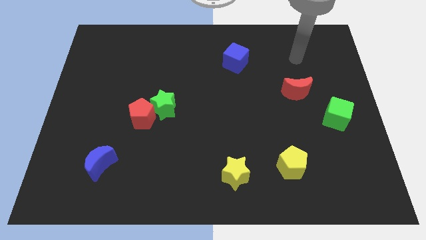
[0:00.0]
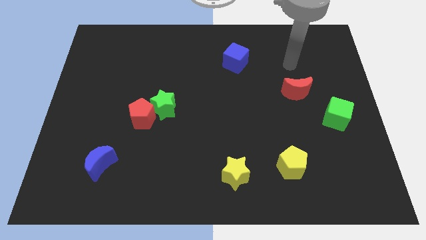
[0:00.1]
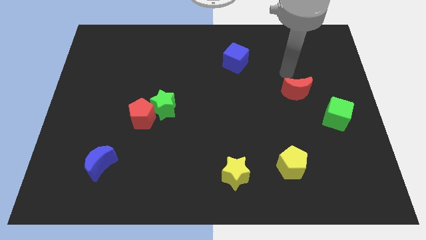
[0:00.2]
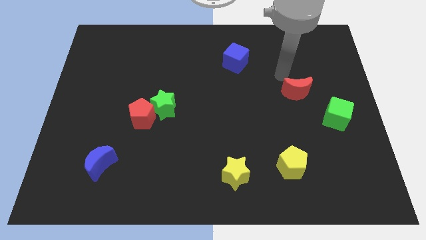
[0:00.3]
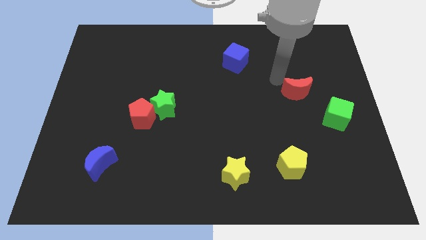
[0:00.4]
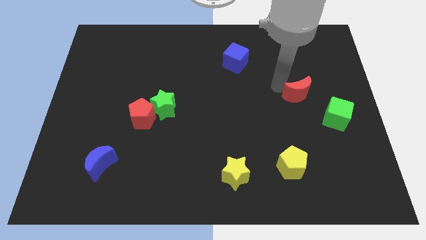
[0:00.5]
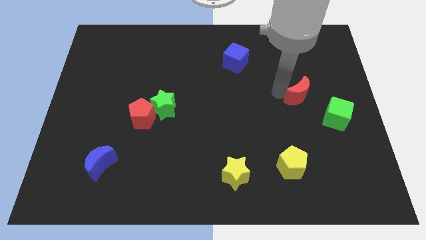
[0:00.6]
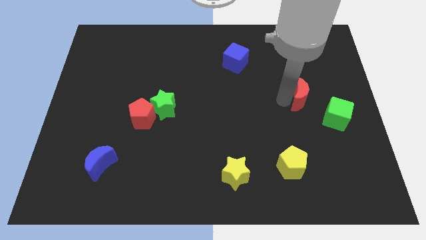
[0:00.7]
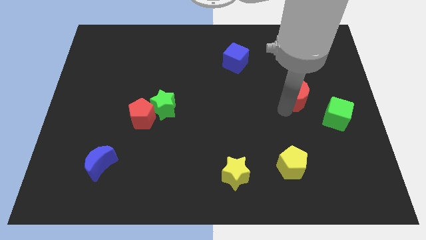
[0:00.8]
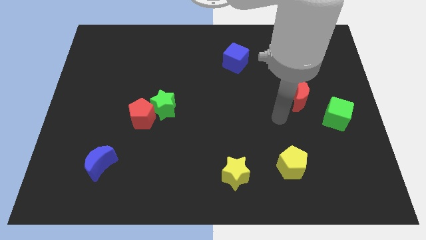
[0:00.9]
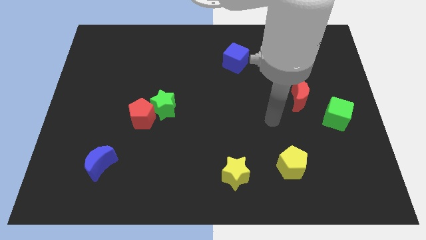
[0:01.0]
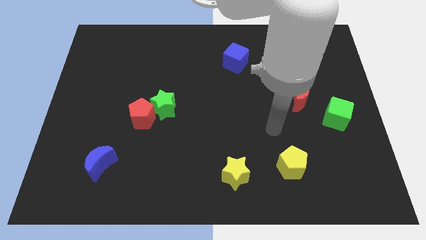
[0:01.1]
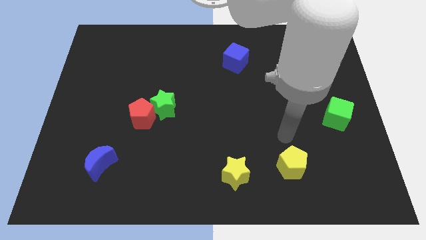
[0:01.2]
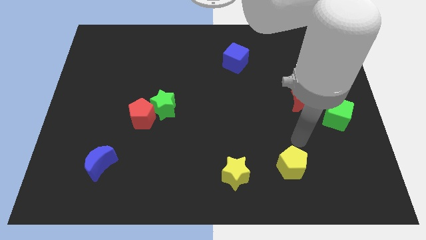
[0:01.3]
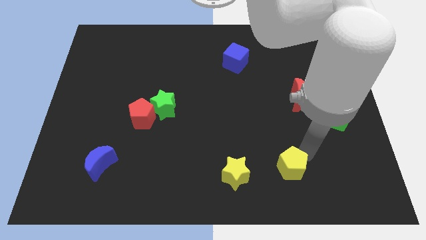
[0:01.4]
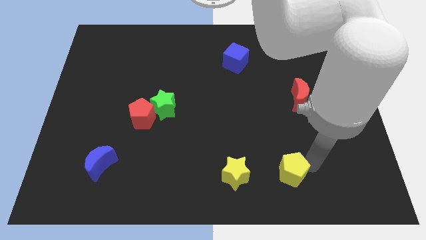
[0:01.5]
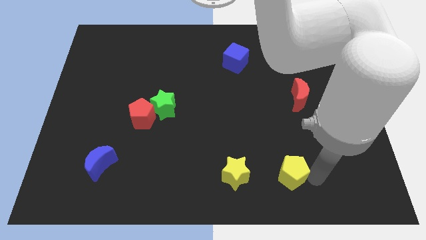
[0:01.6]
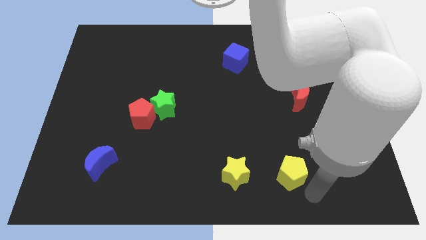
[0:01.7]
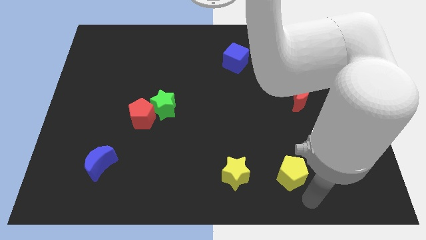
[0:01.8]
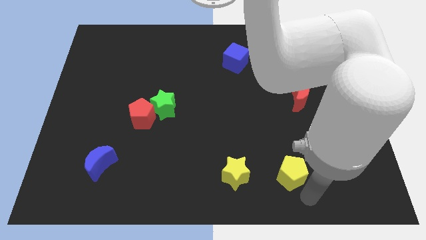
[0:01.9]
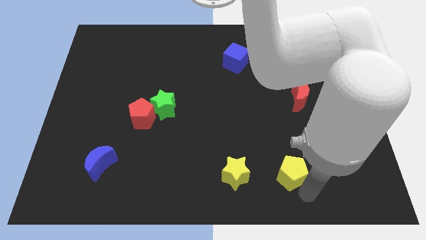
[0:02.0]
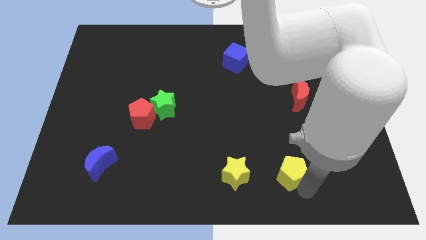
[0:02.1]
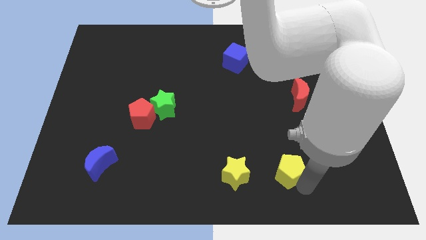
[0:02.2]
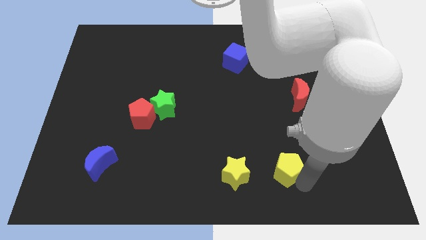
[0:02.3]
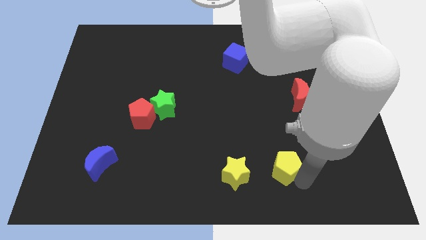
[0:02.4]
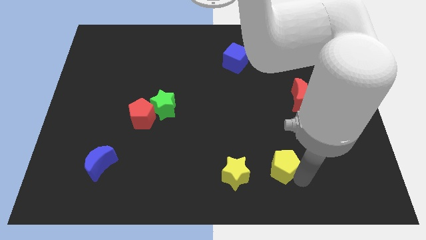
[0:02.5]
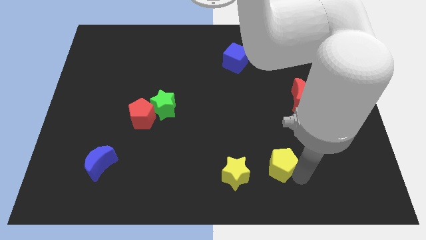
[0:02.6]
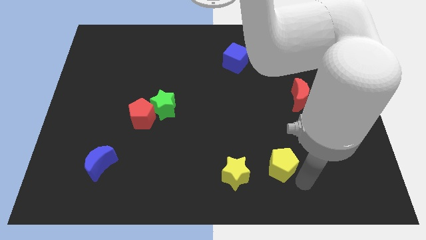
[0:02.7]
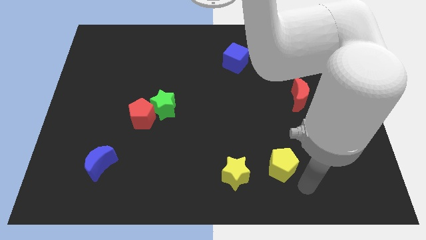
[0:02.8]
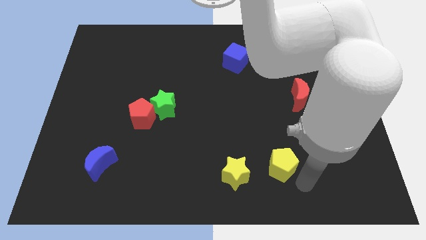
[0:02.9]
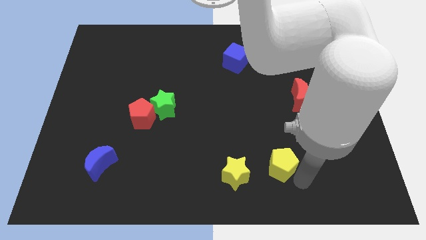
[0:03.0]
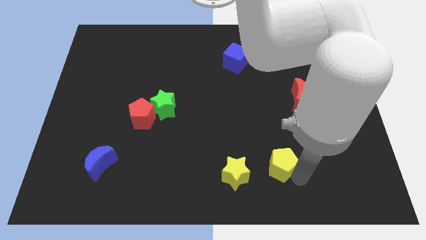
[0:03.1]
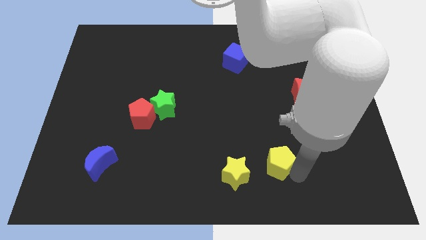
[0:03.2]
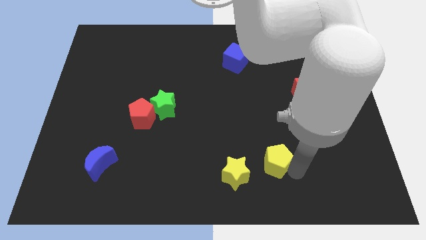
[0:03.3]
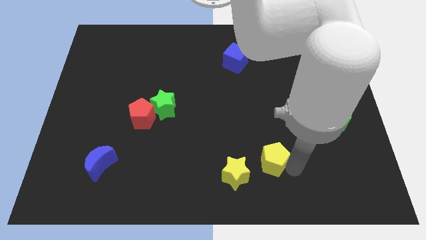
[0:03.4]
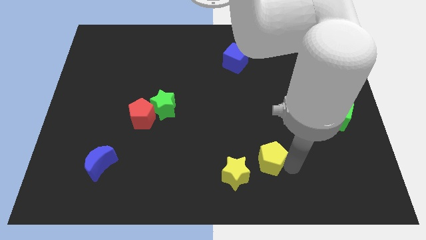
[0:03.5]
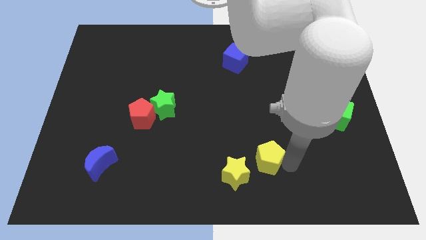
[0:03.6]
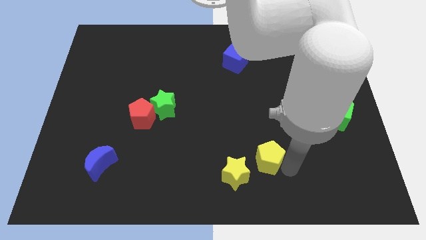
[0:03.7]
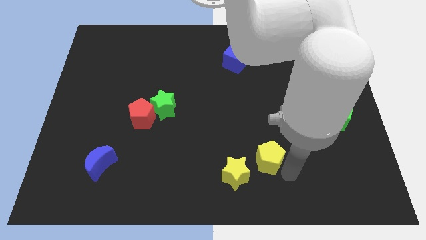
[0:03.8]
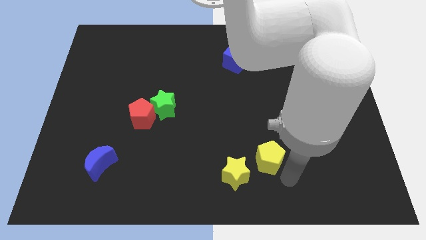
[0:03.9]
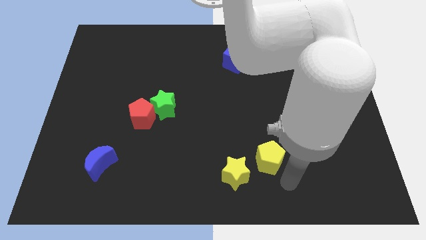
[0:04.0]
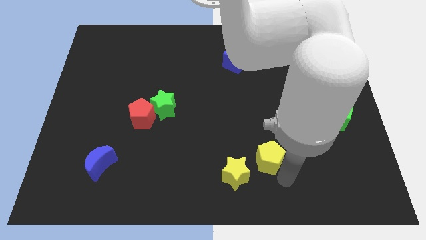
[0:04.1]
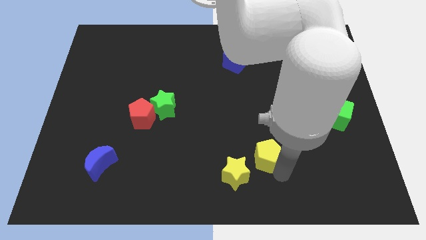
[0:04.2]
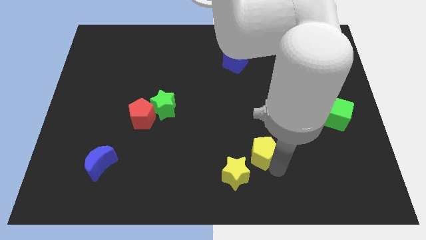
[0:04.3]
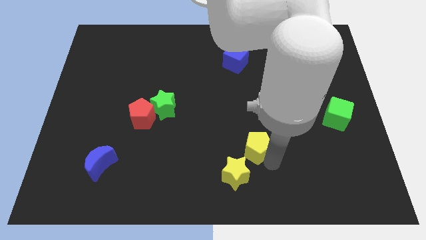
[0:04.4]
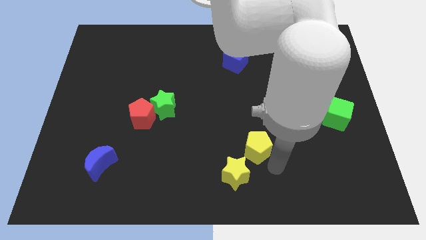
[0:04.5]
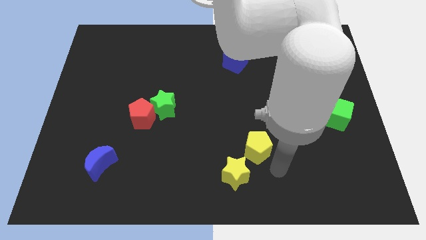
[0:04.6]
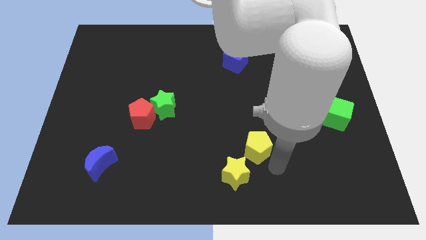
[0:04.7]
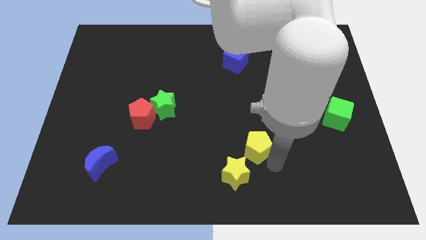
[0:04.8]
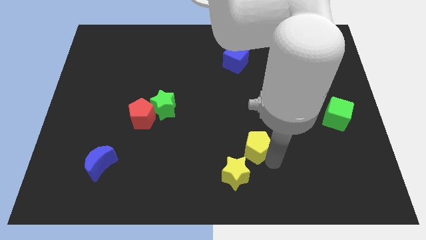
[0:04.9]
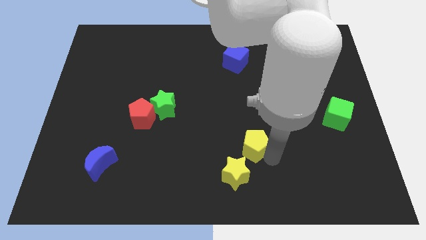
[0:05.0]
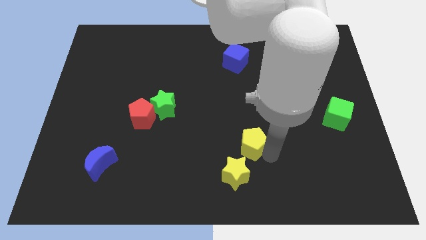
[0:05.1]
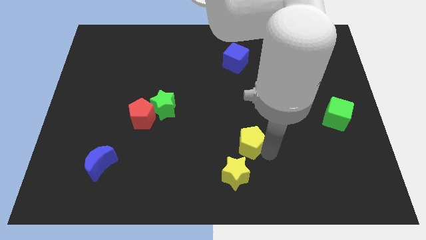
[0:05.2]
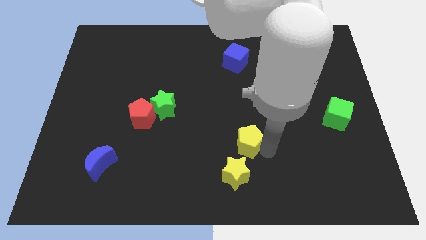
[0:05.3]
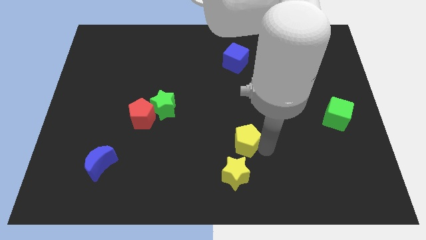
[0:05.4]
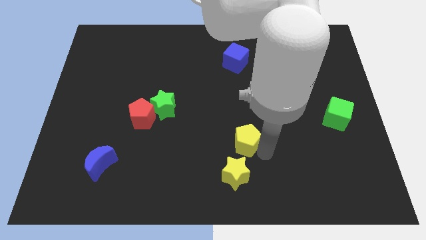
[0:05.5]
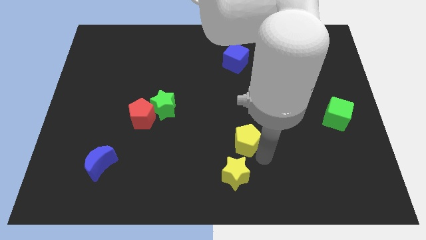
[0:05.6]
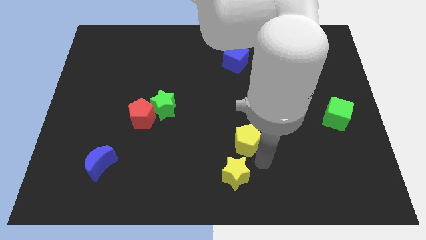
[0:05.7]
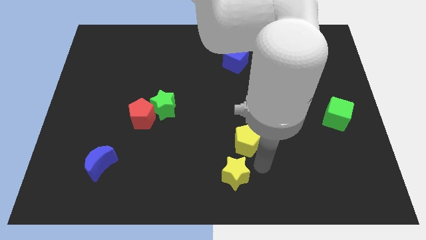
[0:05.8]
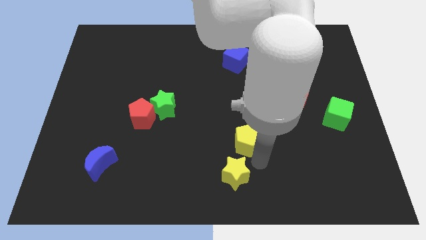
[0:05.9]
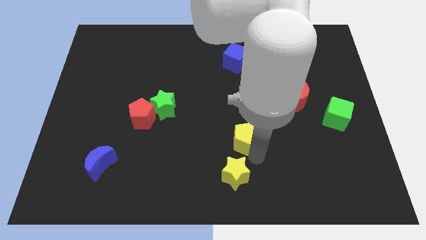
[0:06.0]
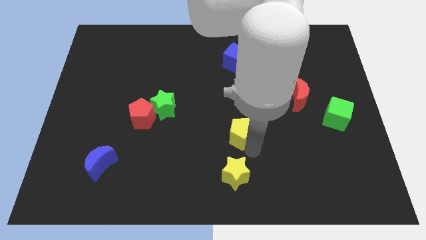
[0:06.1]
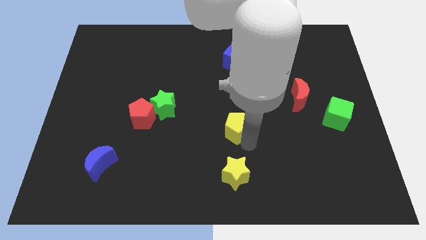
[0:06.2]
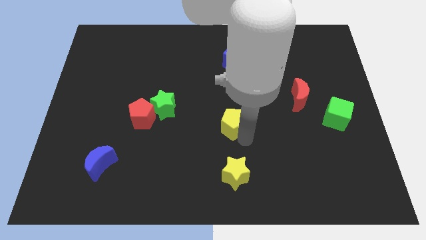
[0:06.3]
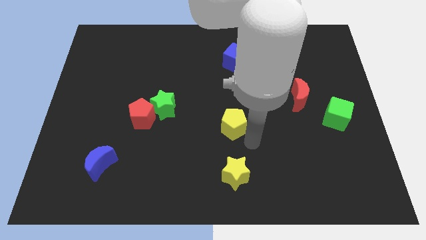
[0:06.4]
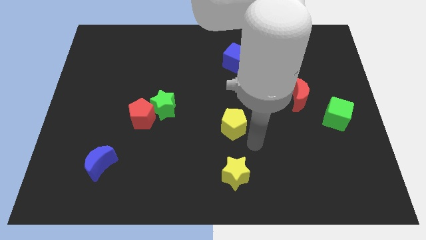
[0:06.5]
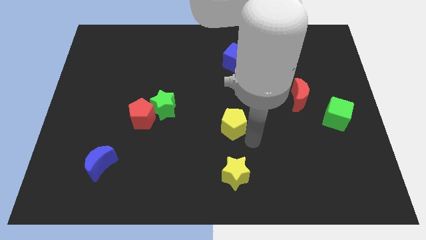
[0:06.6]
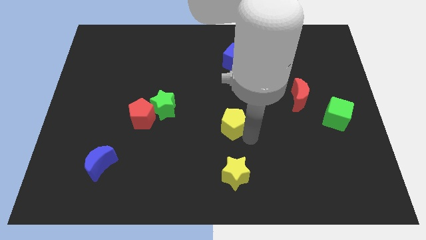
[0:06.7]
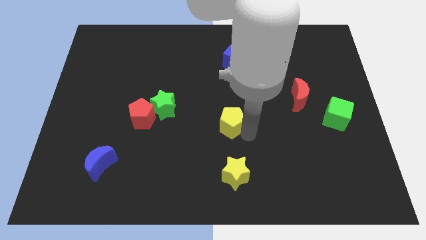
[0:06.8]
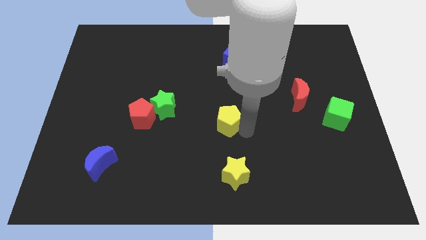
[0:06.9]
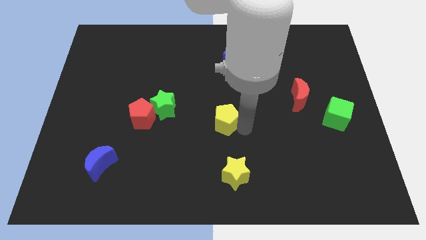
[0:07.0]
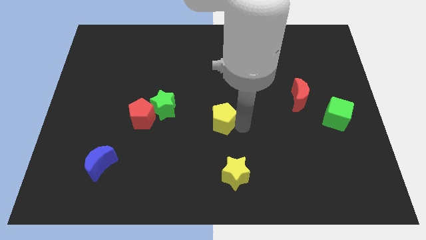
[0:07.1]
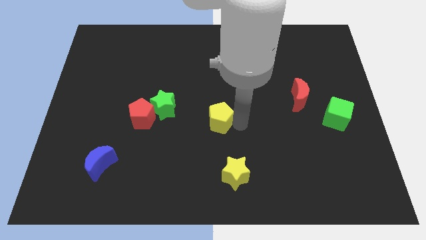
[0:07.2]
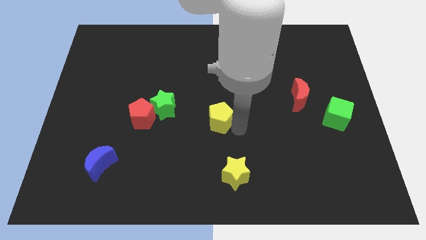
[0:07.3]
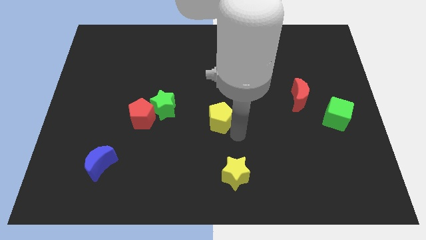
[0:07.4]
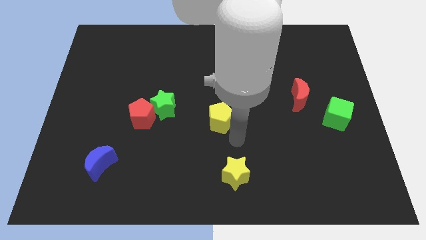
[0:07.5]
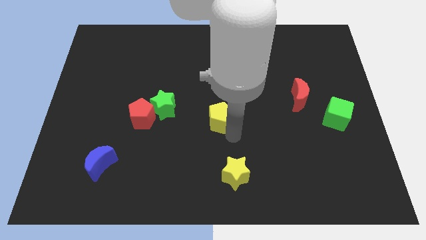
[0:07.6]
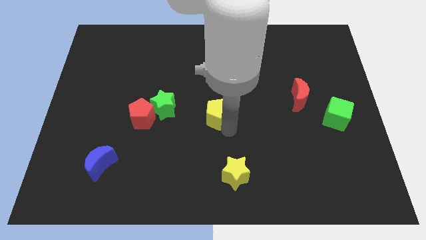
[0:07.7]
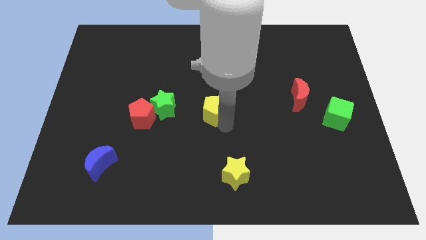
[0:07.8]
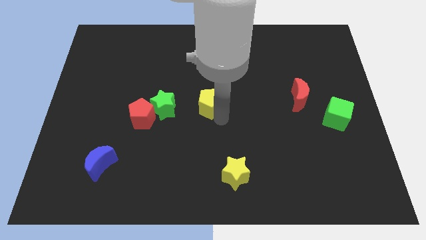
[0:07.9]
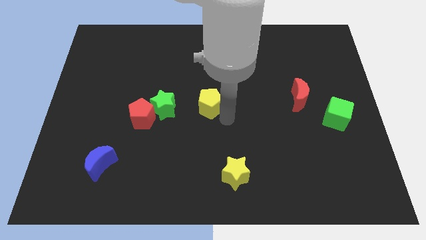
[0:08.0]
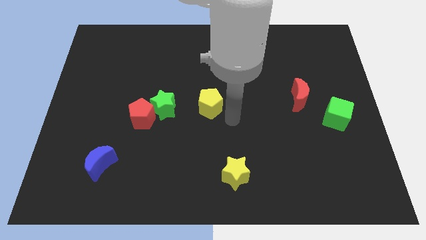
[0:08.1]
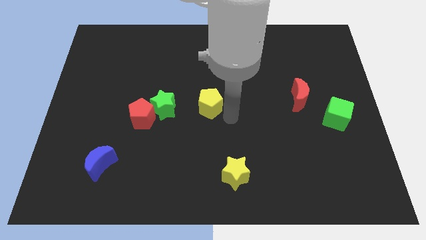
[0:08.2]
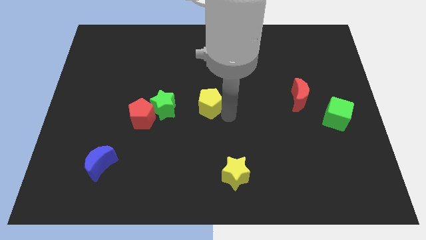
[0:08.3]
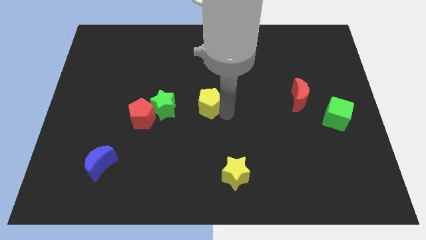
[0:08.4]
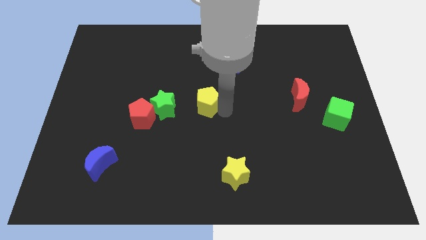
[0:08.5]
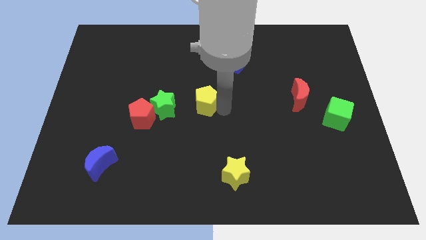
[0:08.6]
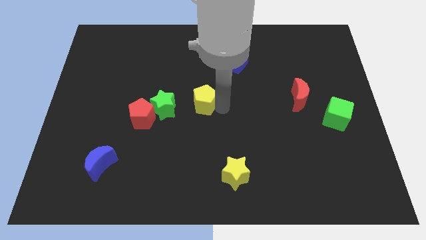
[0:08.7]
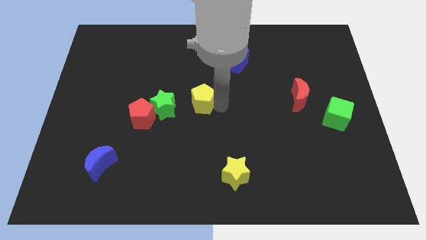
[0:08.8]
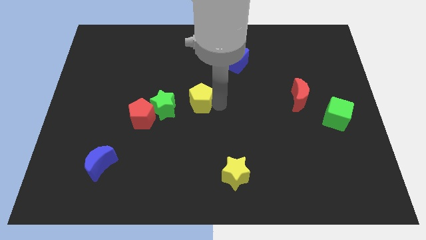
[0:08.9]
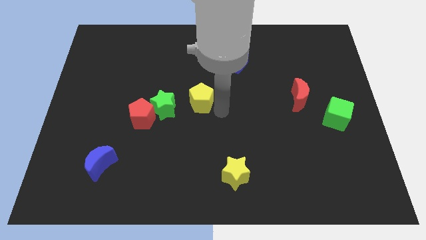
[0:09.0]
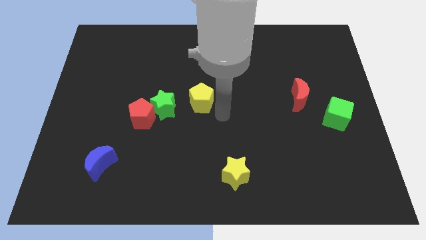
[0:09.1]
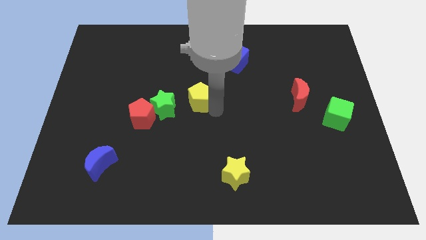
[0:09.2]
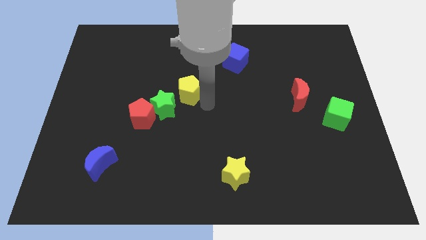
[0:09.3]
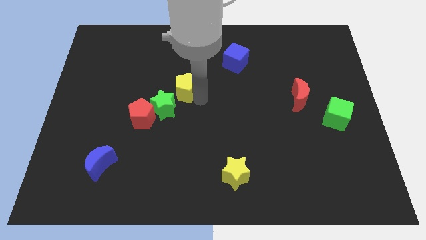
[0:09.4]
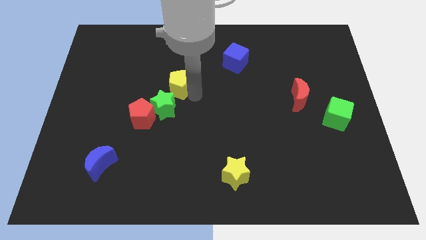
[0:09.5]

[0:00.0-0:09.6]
slide the yellow pentagon above the green star
